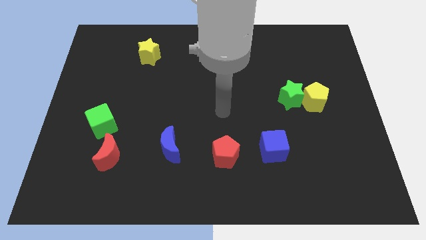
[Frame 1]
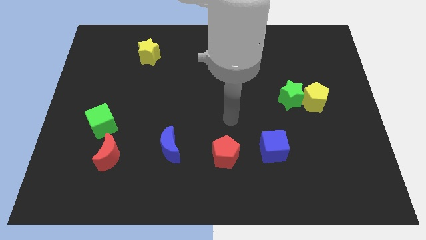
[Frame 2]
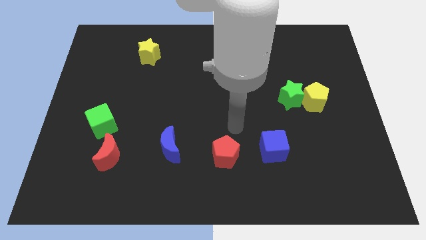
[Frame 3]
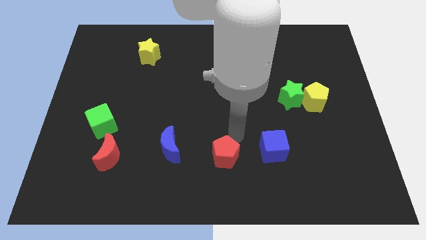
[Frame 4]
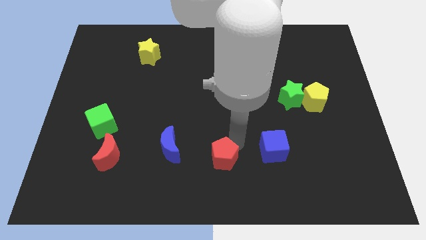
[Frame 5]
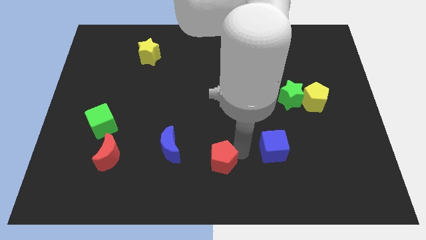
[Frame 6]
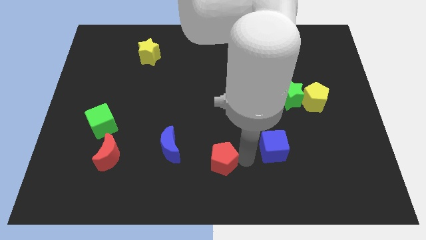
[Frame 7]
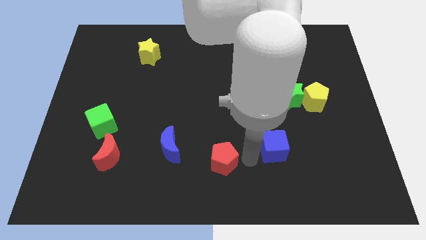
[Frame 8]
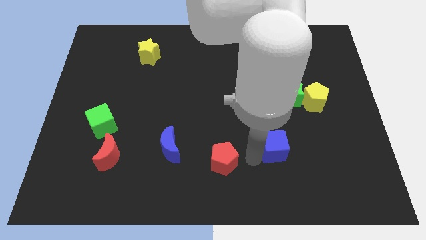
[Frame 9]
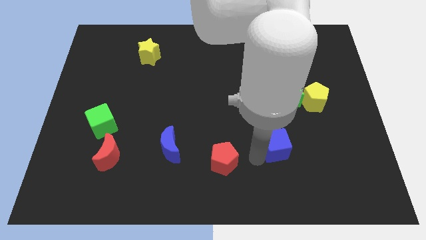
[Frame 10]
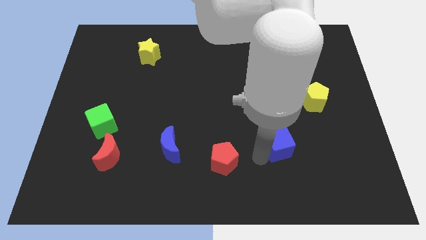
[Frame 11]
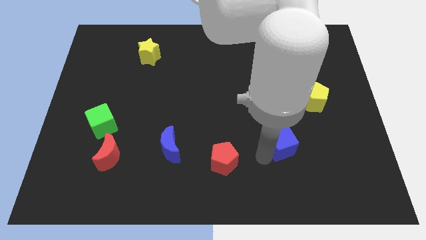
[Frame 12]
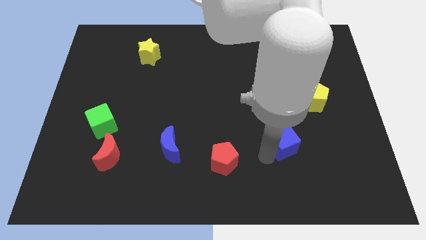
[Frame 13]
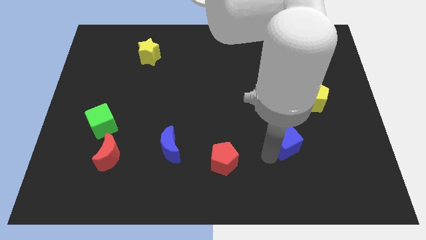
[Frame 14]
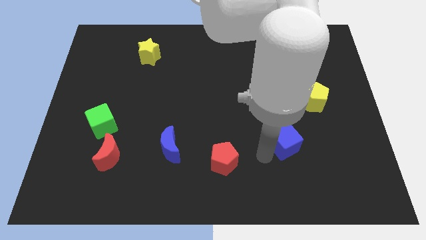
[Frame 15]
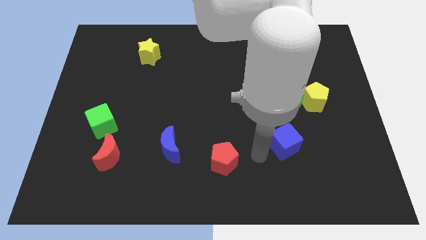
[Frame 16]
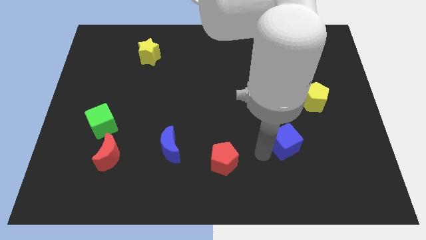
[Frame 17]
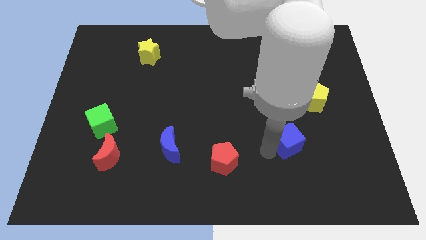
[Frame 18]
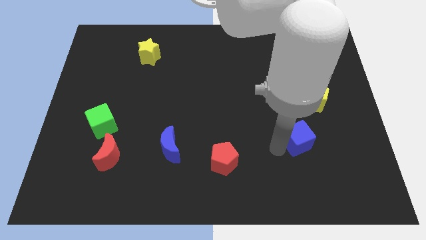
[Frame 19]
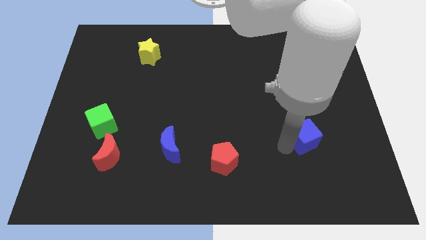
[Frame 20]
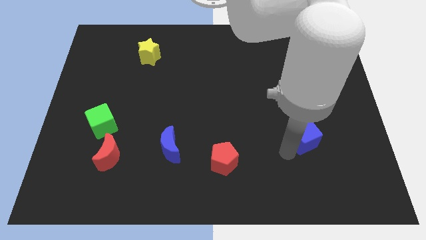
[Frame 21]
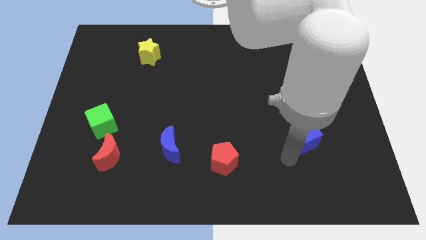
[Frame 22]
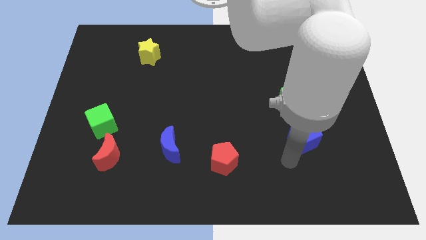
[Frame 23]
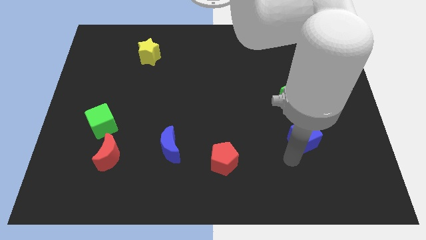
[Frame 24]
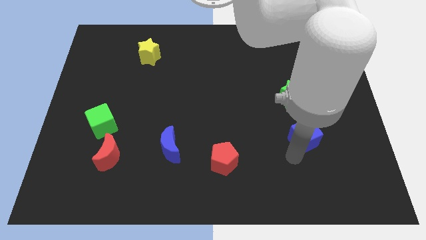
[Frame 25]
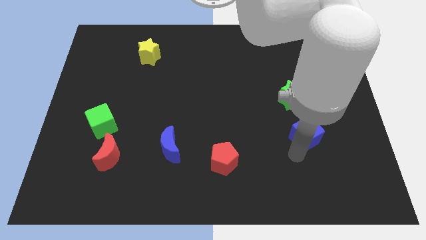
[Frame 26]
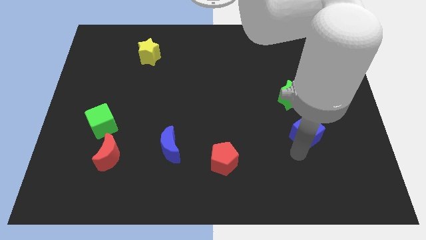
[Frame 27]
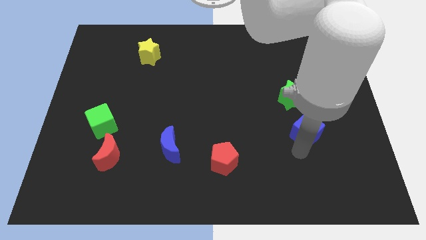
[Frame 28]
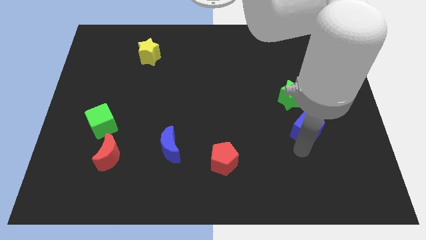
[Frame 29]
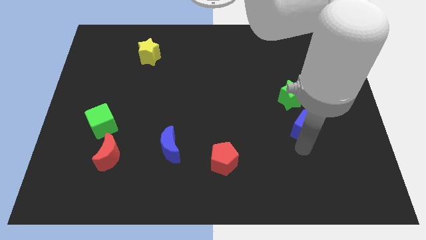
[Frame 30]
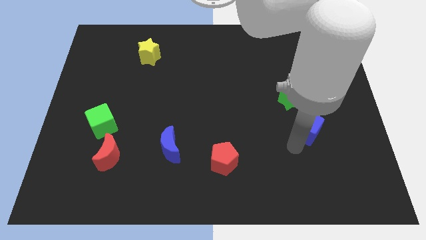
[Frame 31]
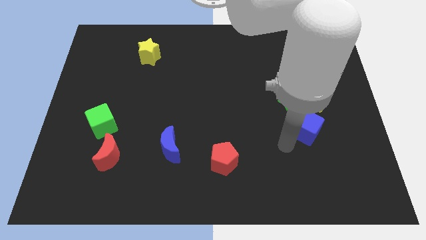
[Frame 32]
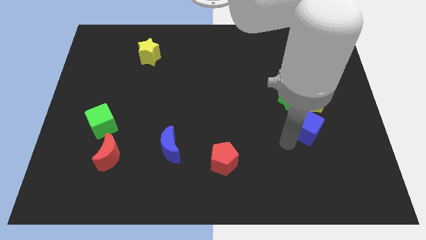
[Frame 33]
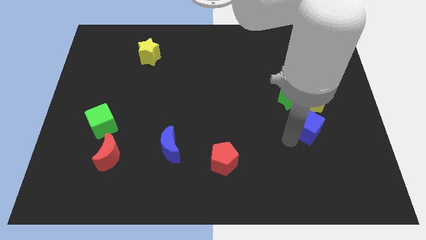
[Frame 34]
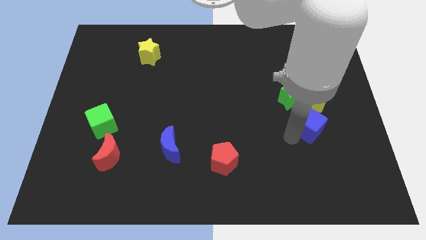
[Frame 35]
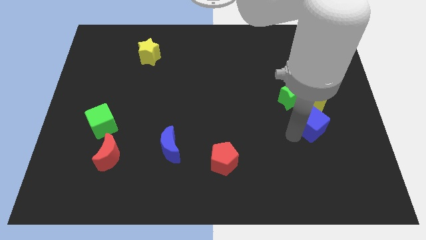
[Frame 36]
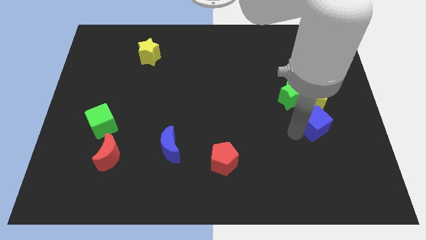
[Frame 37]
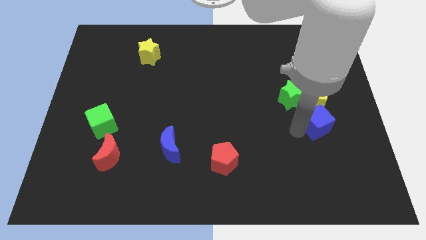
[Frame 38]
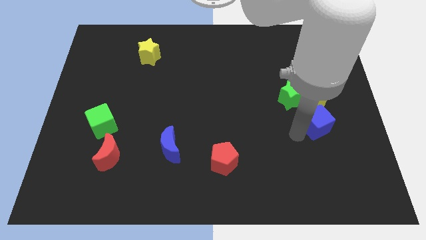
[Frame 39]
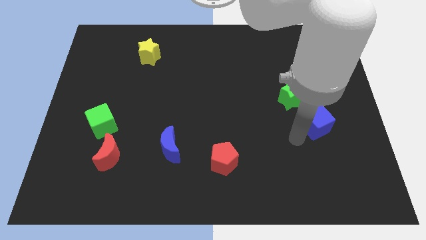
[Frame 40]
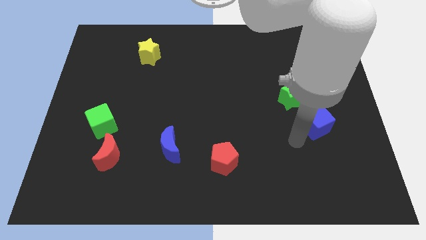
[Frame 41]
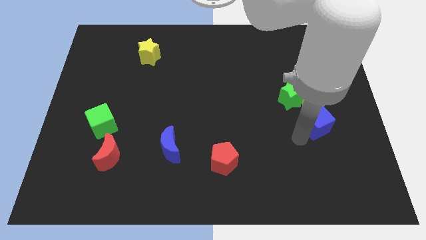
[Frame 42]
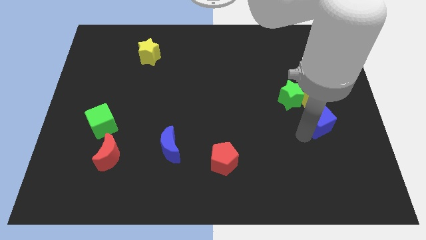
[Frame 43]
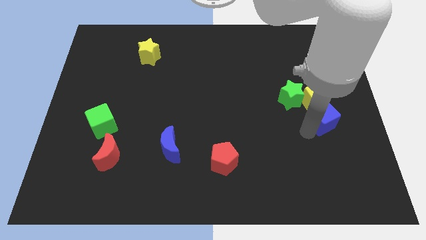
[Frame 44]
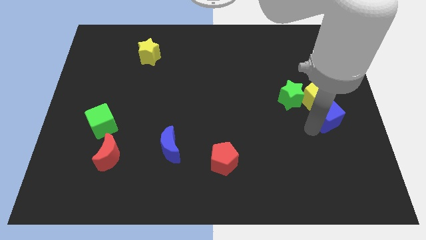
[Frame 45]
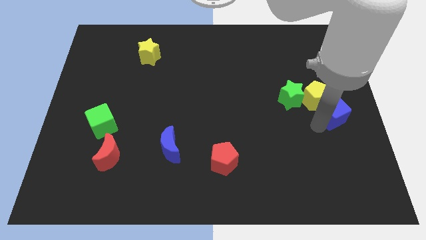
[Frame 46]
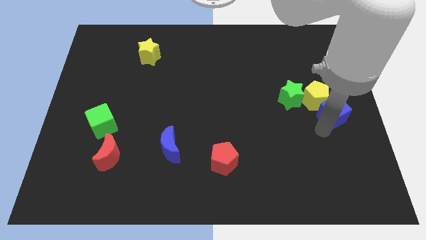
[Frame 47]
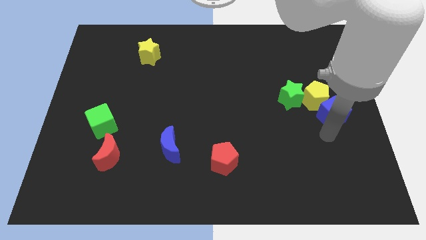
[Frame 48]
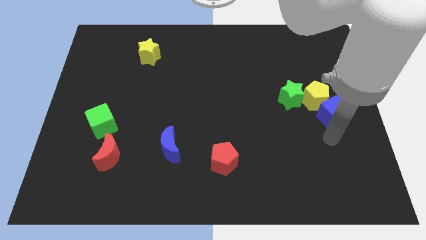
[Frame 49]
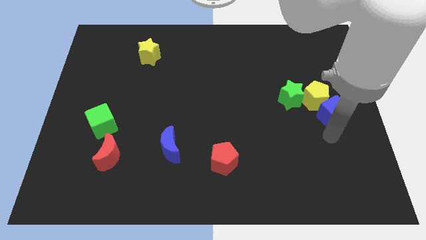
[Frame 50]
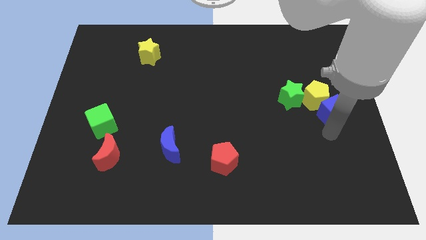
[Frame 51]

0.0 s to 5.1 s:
put the blue cube to the right side of the green star

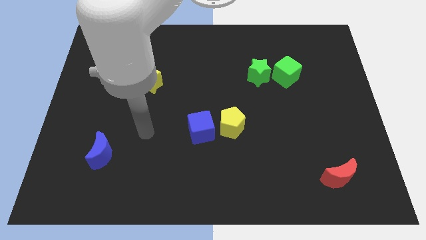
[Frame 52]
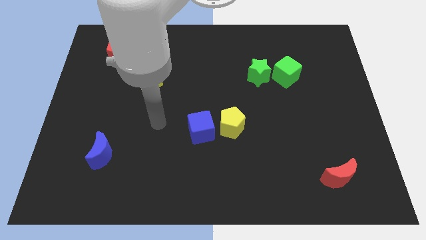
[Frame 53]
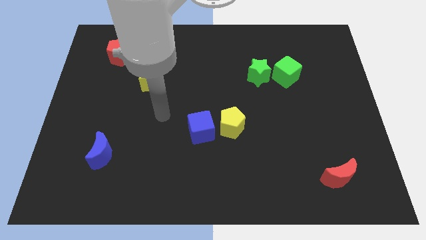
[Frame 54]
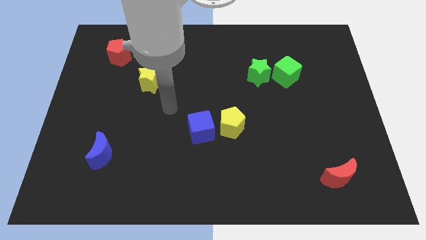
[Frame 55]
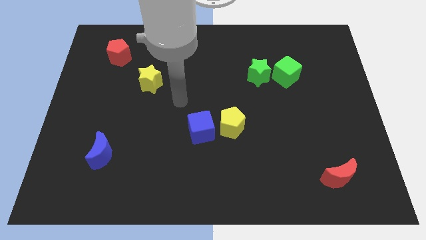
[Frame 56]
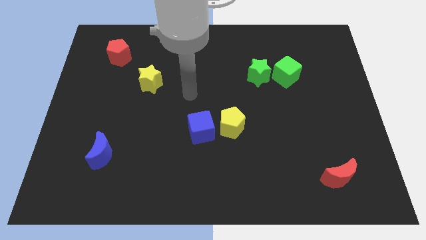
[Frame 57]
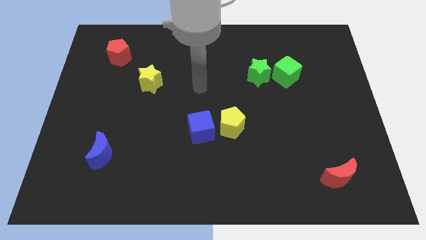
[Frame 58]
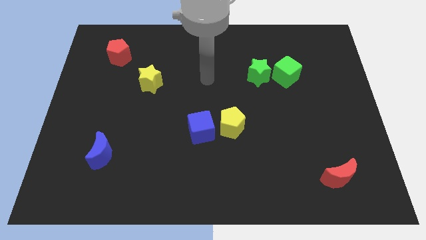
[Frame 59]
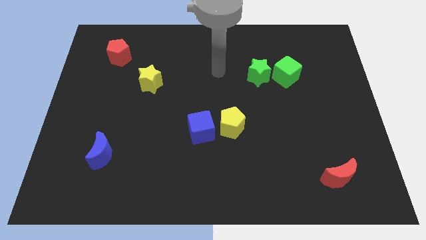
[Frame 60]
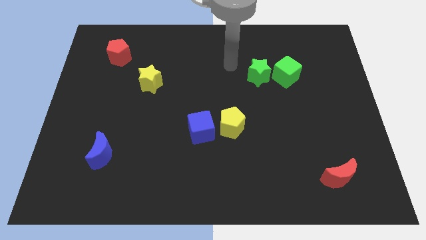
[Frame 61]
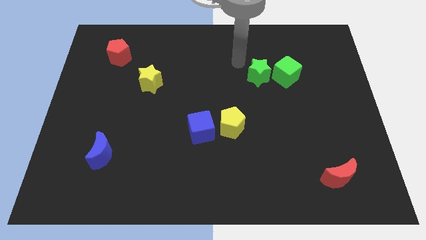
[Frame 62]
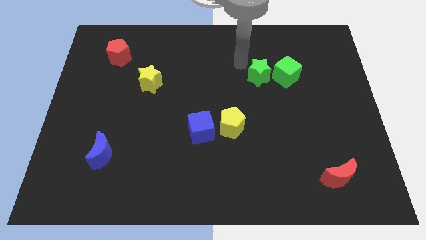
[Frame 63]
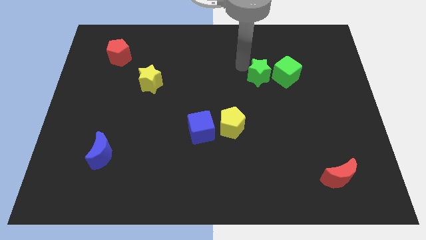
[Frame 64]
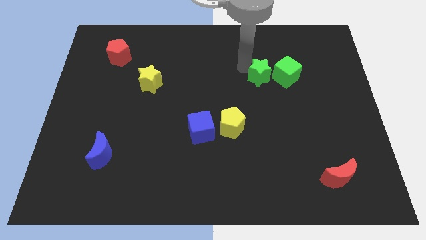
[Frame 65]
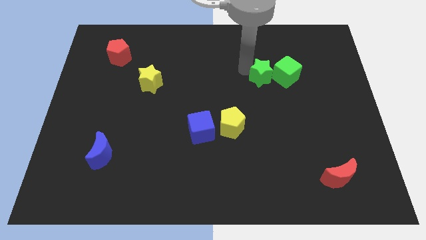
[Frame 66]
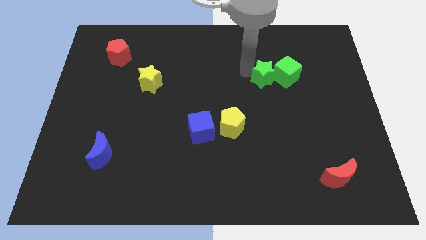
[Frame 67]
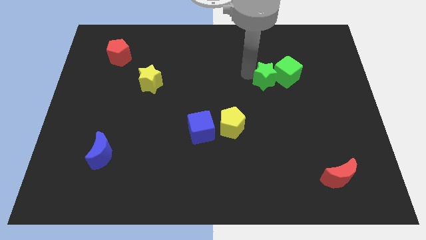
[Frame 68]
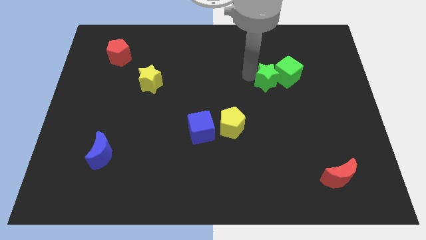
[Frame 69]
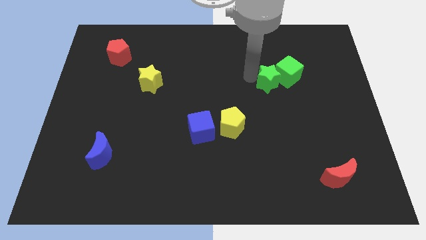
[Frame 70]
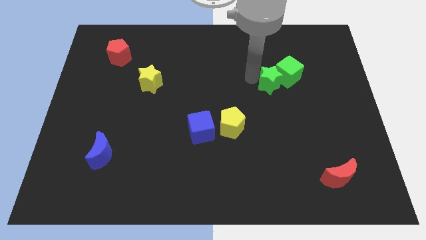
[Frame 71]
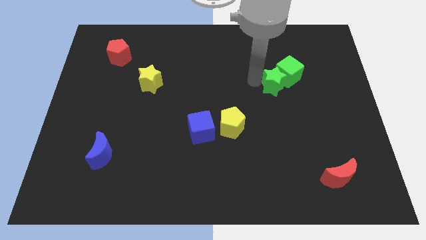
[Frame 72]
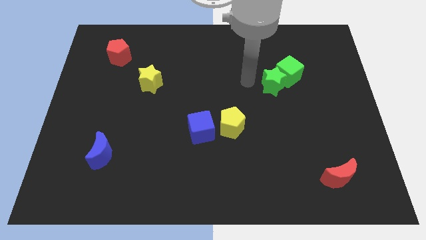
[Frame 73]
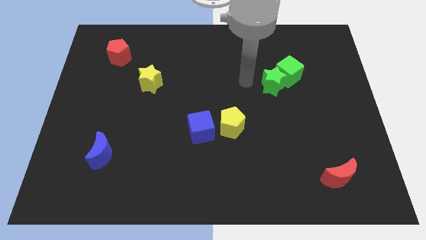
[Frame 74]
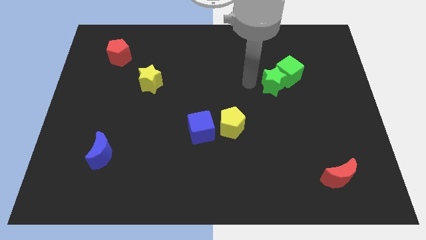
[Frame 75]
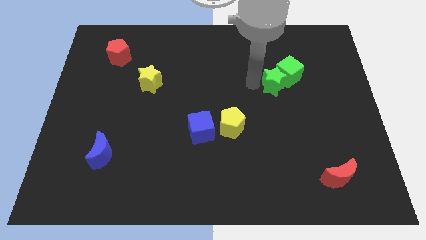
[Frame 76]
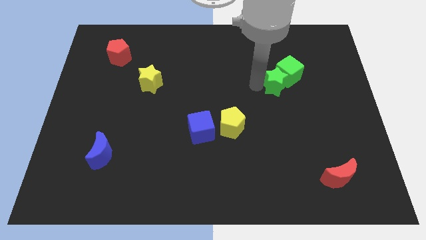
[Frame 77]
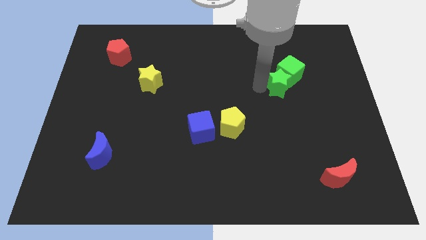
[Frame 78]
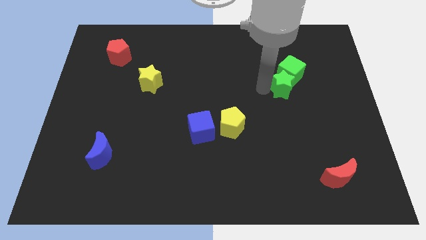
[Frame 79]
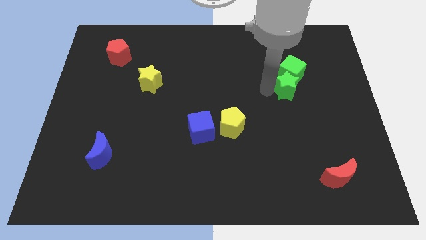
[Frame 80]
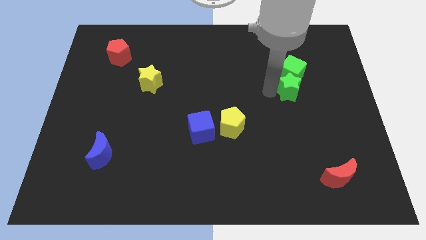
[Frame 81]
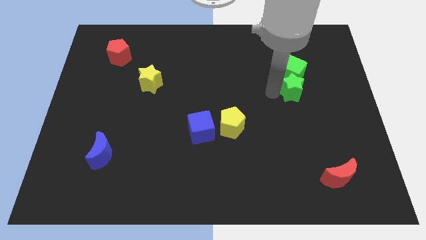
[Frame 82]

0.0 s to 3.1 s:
put the green star diagonally down and to the right of the green cube

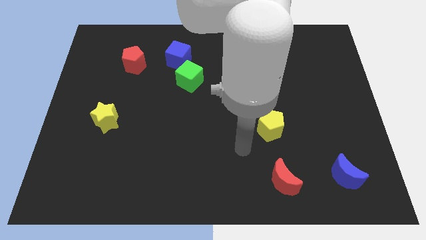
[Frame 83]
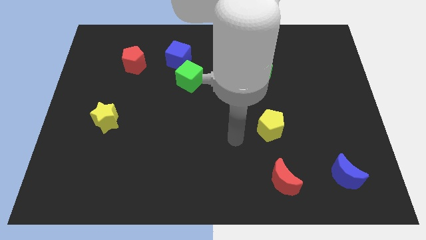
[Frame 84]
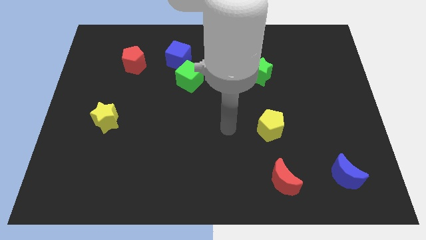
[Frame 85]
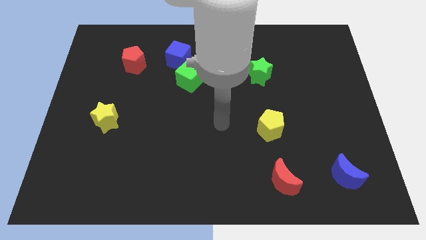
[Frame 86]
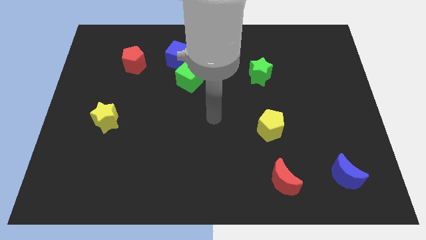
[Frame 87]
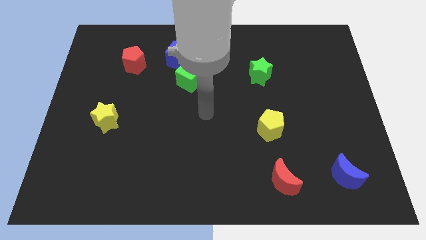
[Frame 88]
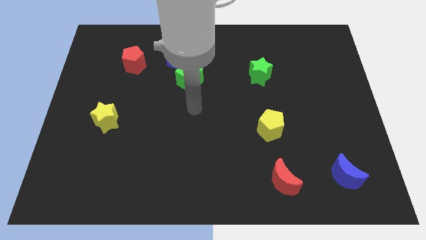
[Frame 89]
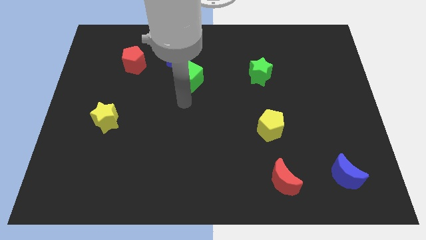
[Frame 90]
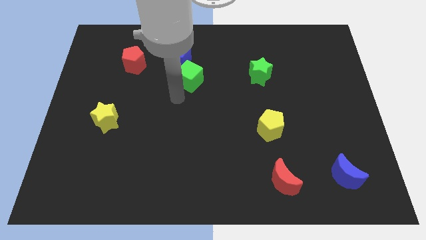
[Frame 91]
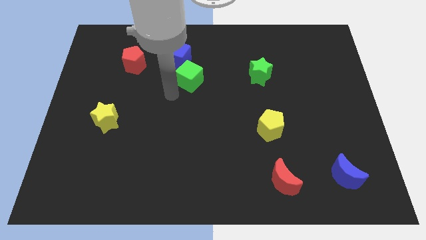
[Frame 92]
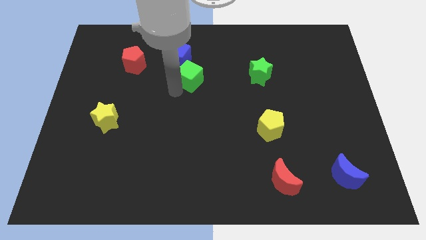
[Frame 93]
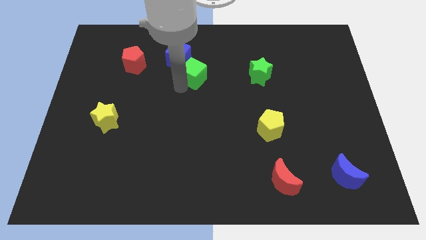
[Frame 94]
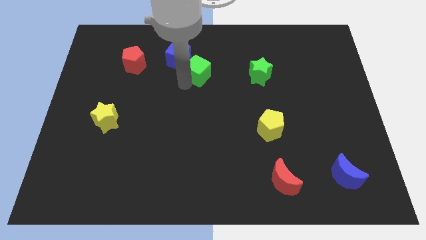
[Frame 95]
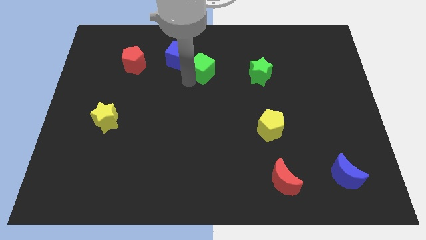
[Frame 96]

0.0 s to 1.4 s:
push the green cube right of the blue cube
